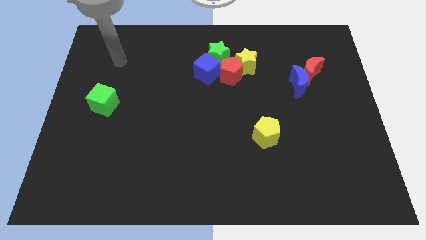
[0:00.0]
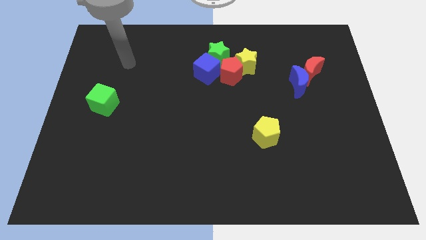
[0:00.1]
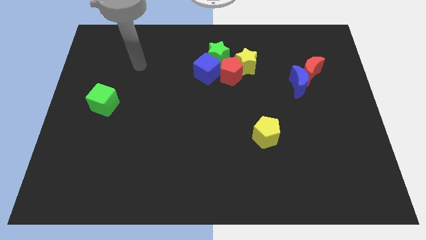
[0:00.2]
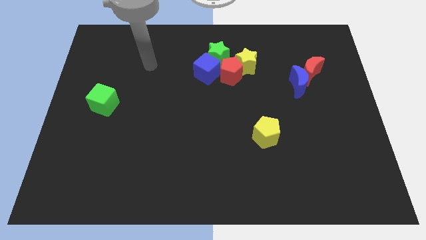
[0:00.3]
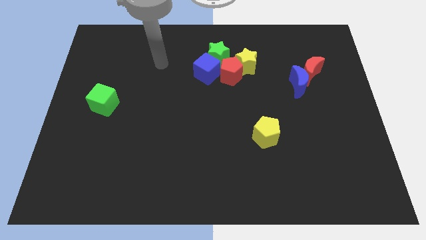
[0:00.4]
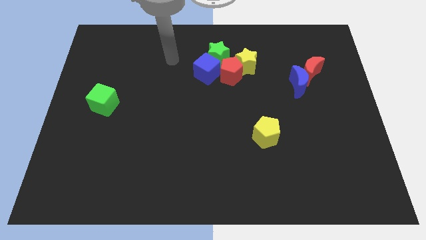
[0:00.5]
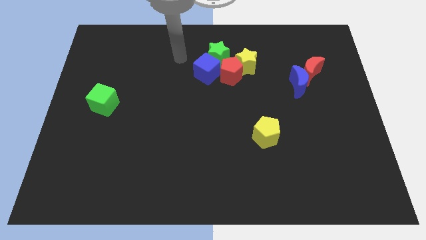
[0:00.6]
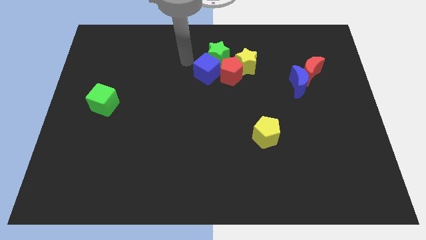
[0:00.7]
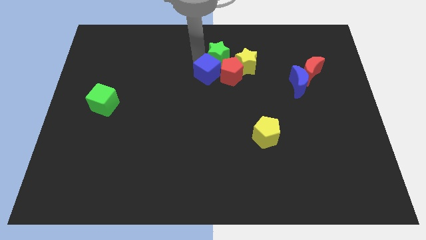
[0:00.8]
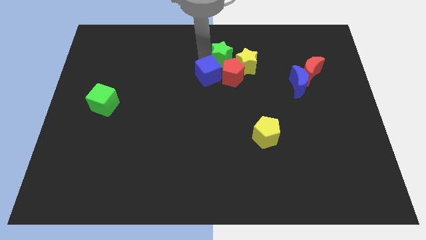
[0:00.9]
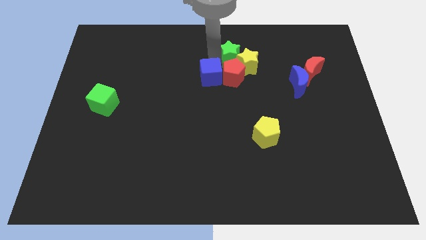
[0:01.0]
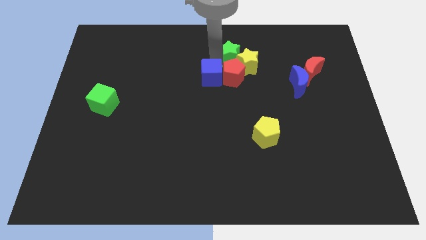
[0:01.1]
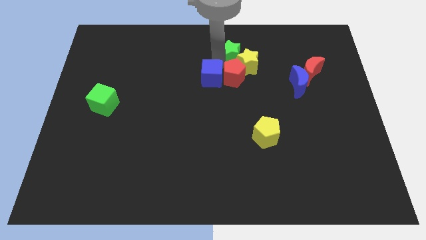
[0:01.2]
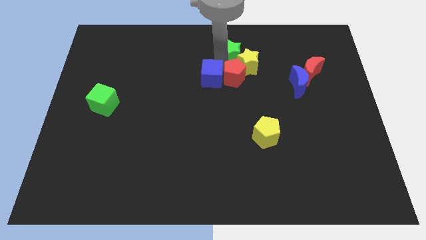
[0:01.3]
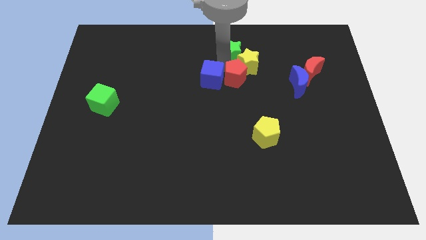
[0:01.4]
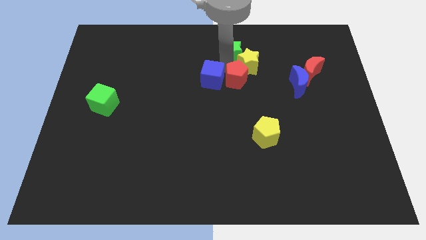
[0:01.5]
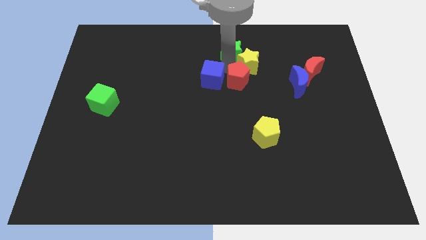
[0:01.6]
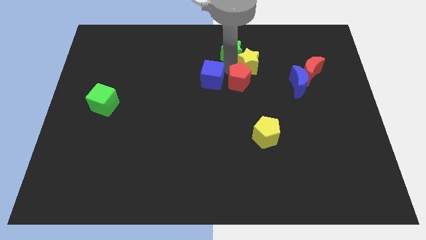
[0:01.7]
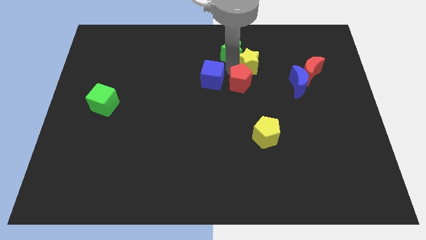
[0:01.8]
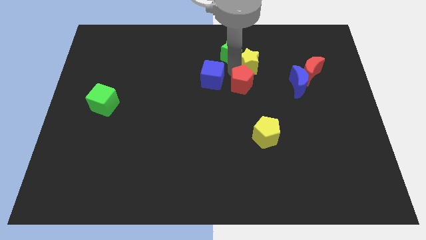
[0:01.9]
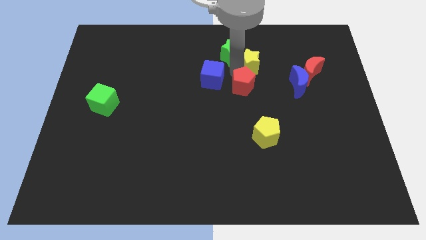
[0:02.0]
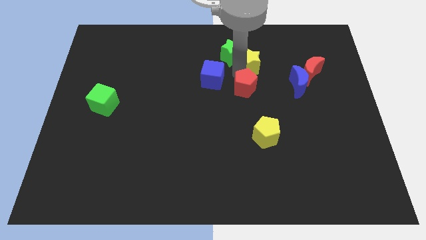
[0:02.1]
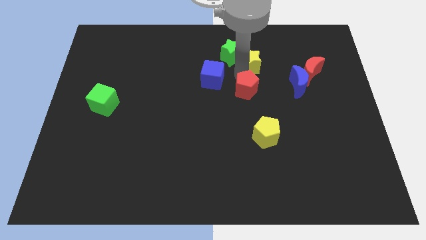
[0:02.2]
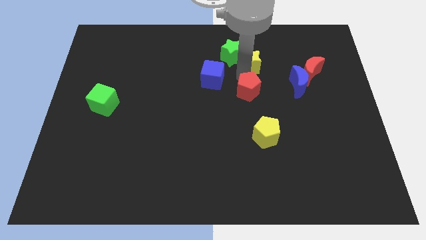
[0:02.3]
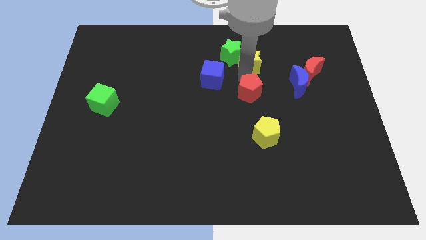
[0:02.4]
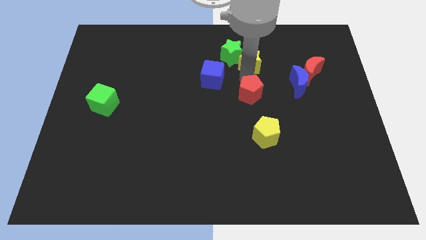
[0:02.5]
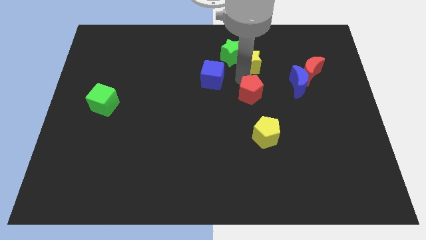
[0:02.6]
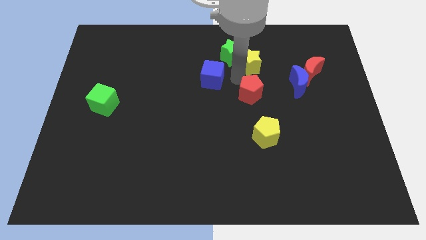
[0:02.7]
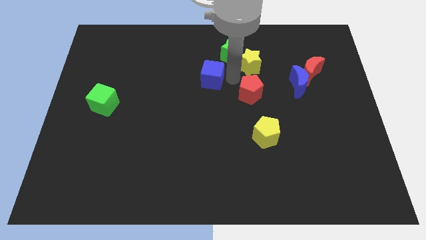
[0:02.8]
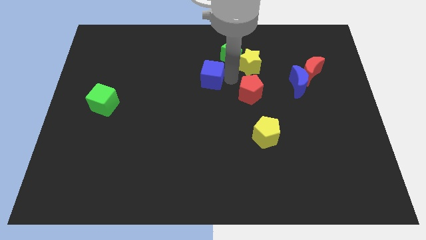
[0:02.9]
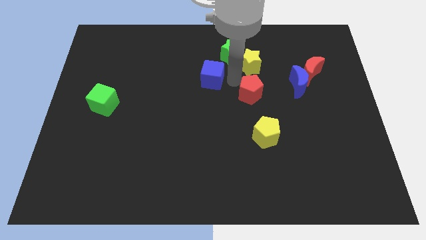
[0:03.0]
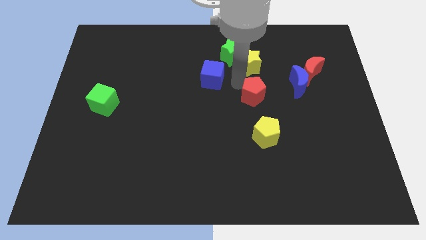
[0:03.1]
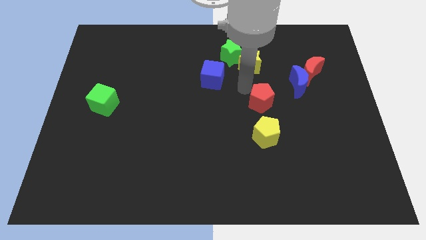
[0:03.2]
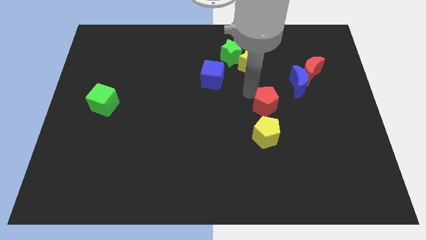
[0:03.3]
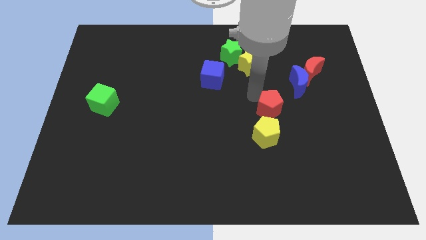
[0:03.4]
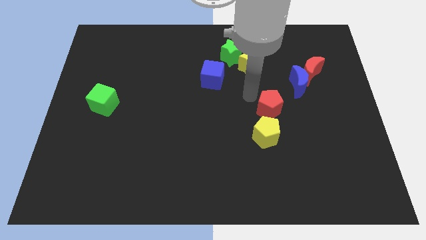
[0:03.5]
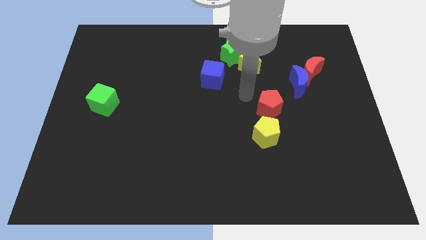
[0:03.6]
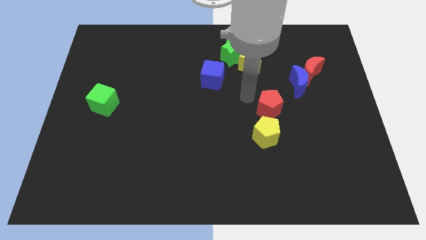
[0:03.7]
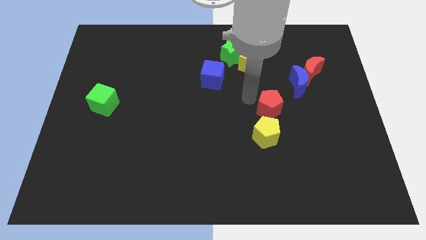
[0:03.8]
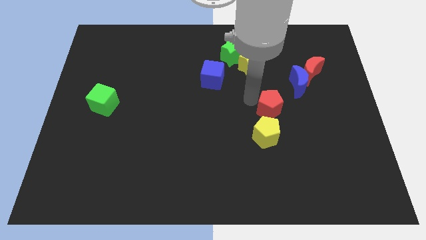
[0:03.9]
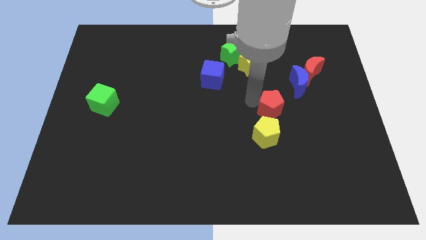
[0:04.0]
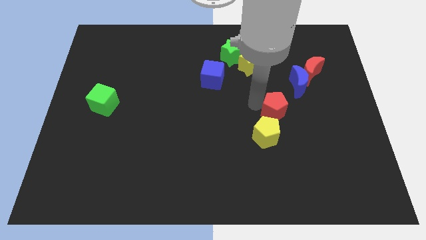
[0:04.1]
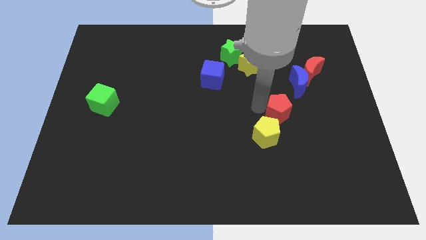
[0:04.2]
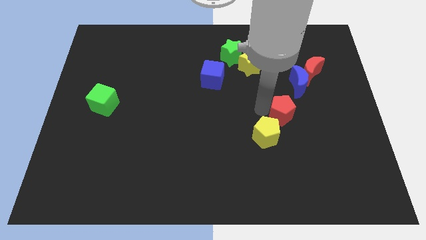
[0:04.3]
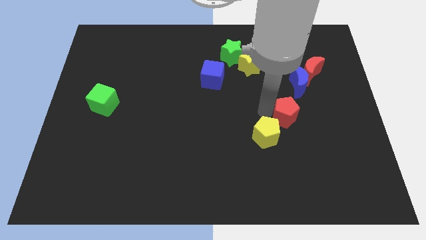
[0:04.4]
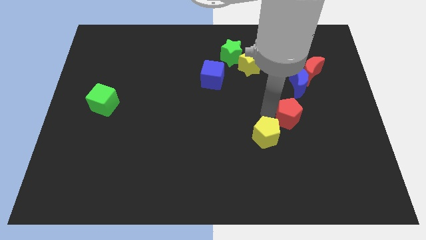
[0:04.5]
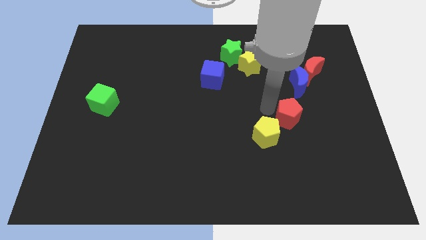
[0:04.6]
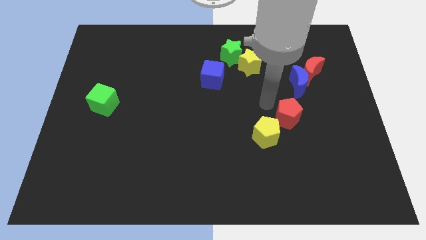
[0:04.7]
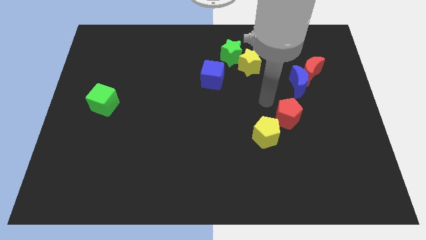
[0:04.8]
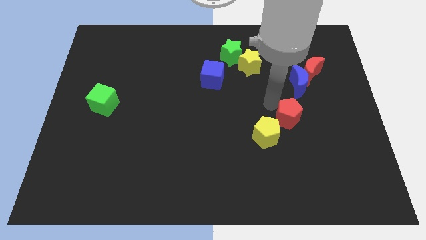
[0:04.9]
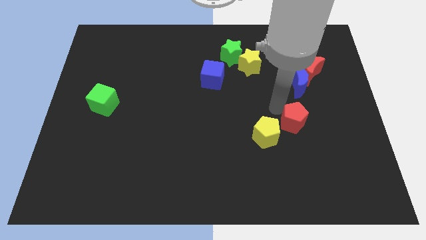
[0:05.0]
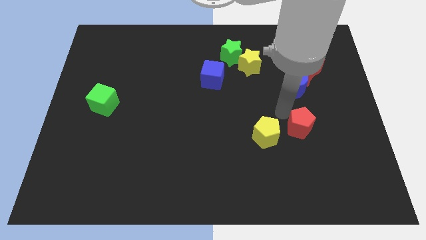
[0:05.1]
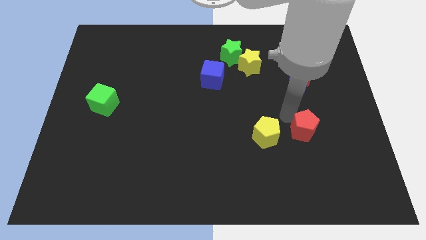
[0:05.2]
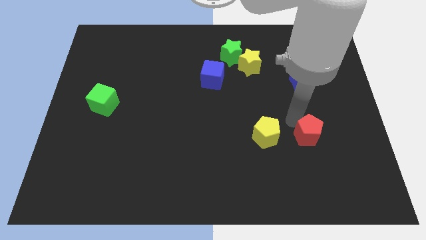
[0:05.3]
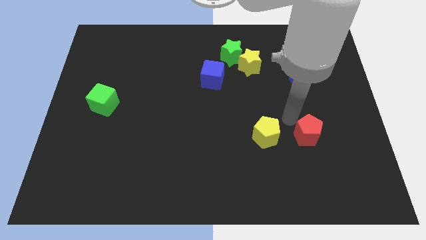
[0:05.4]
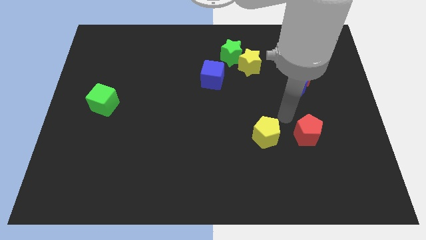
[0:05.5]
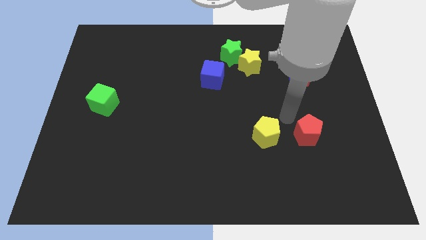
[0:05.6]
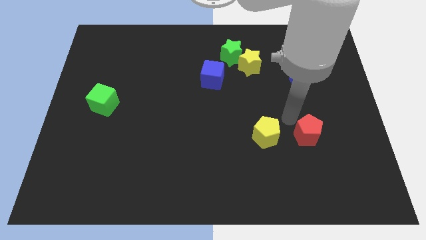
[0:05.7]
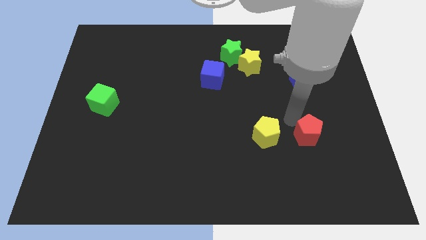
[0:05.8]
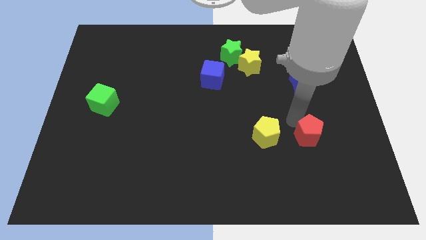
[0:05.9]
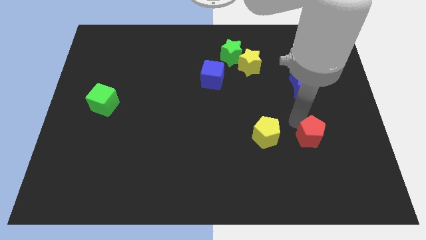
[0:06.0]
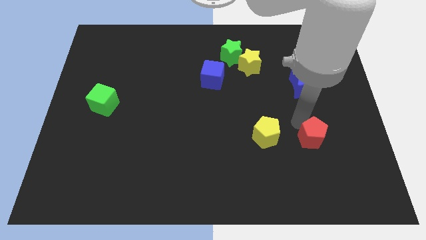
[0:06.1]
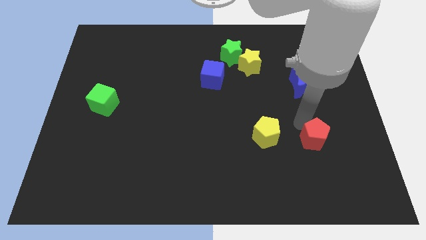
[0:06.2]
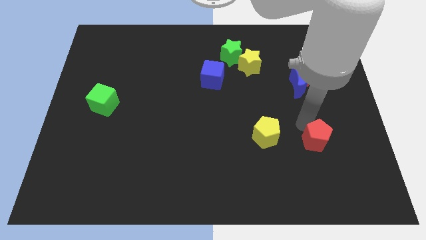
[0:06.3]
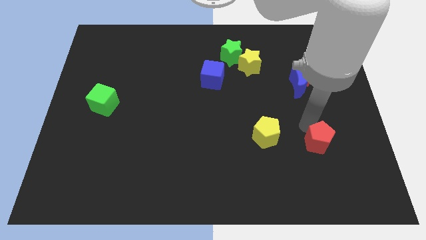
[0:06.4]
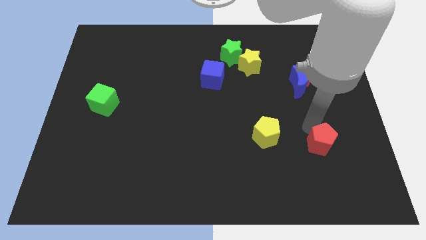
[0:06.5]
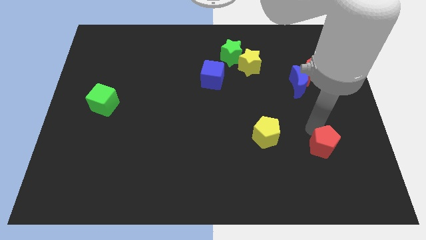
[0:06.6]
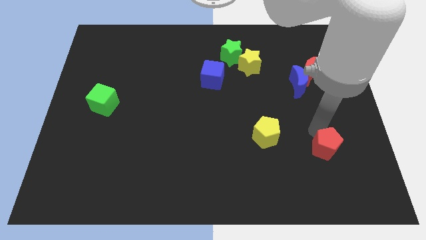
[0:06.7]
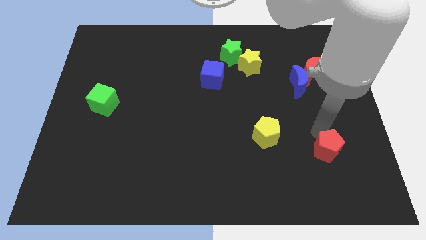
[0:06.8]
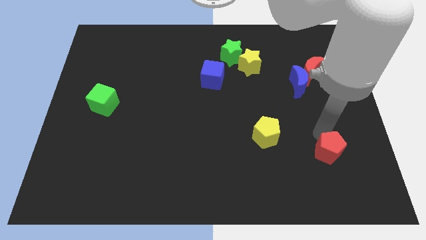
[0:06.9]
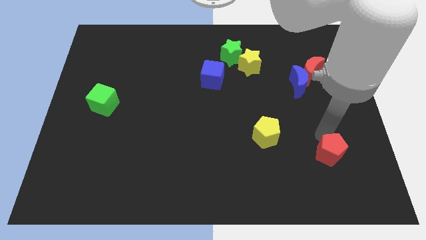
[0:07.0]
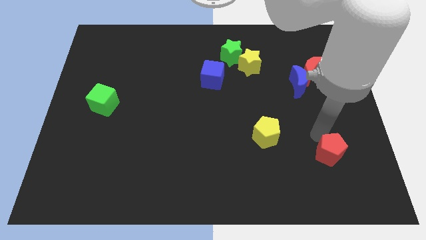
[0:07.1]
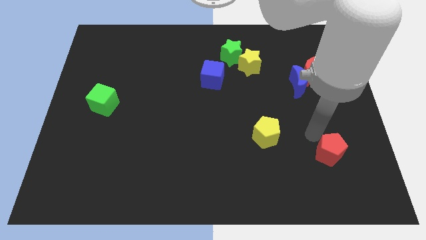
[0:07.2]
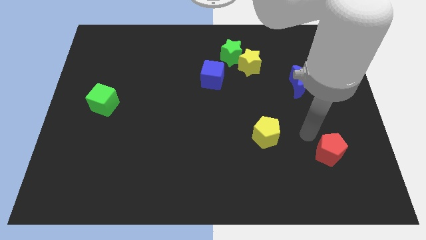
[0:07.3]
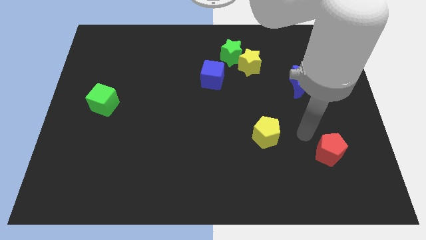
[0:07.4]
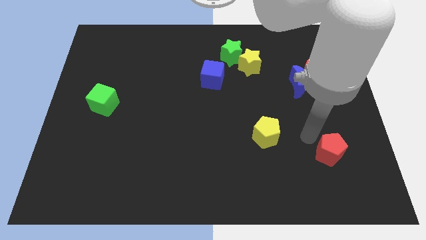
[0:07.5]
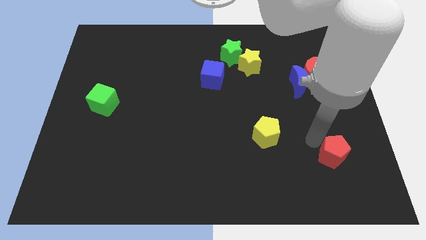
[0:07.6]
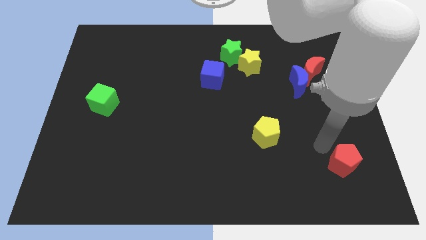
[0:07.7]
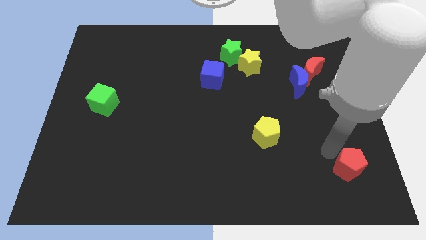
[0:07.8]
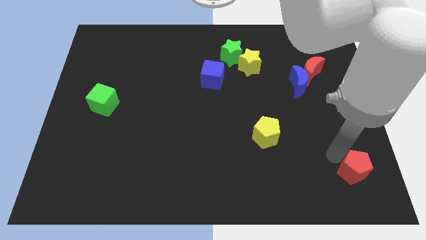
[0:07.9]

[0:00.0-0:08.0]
push the red pentagon to the bottom right of the board
